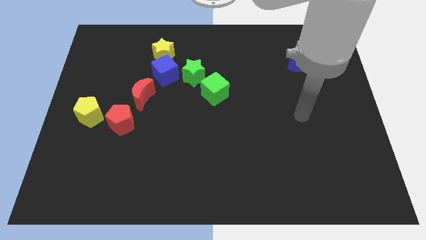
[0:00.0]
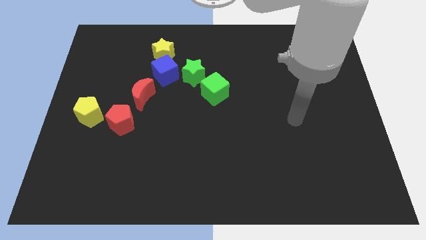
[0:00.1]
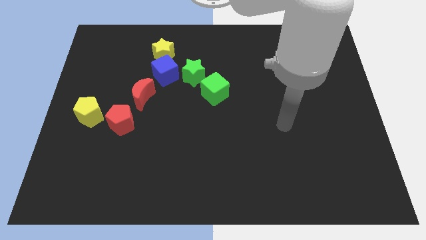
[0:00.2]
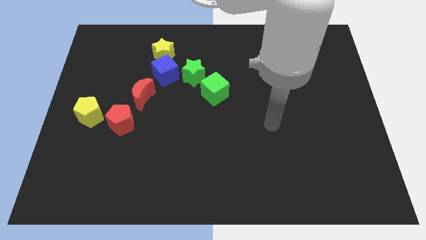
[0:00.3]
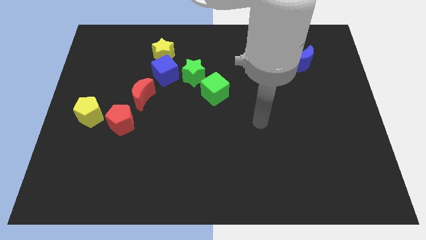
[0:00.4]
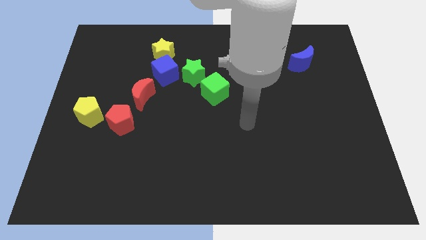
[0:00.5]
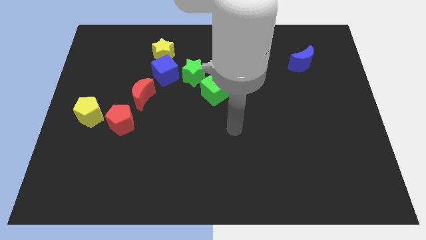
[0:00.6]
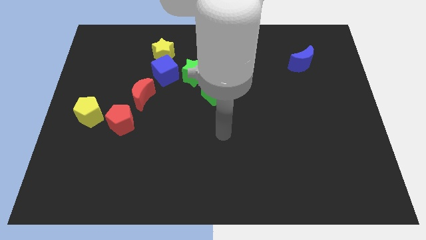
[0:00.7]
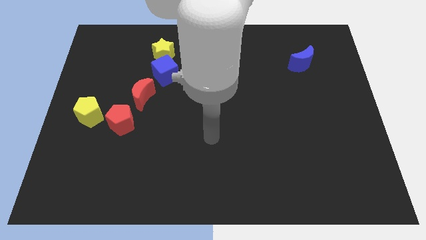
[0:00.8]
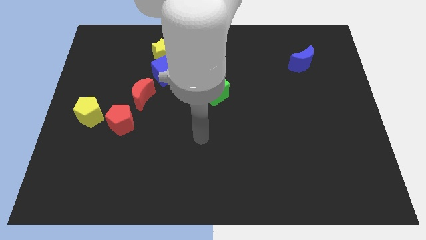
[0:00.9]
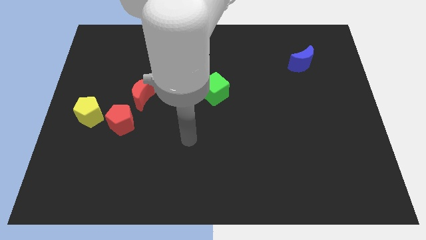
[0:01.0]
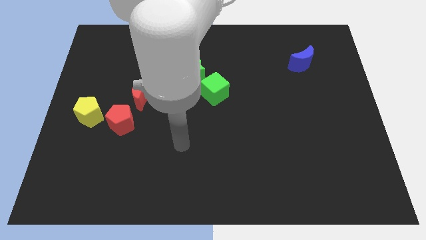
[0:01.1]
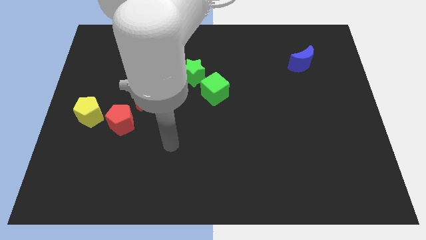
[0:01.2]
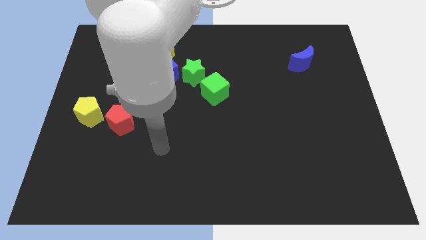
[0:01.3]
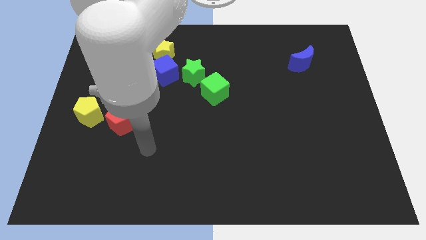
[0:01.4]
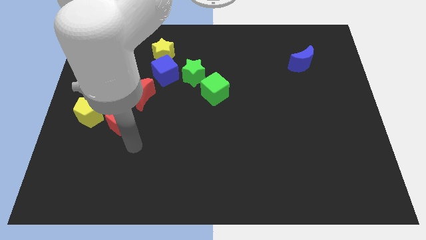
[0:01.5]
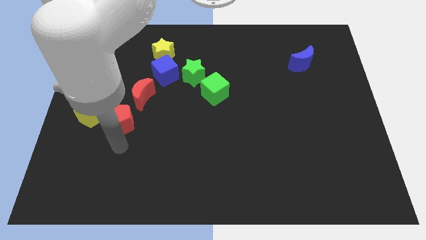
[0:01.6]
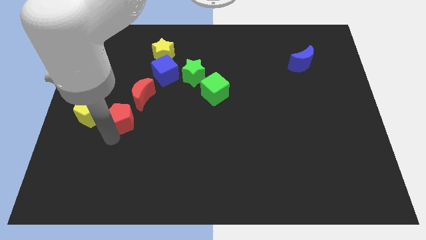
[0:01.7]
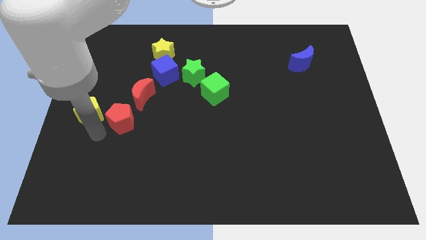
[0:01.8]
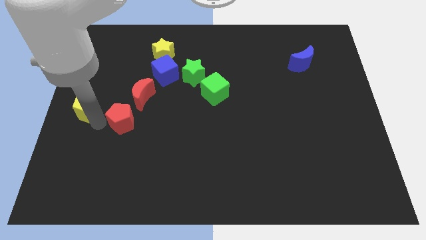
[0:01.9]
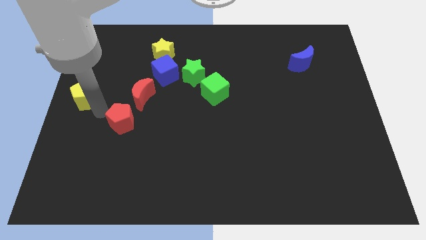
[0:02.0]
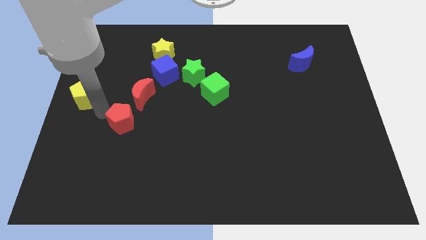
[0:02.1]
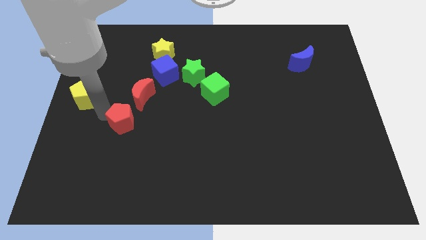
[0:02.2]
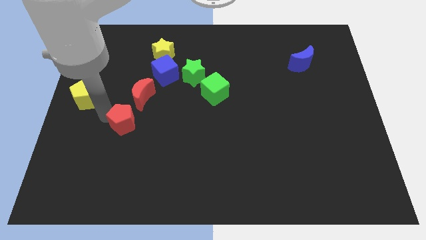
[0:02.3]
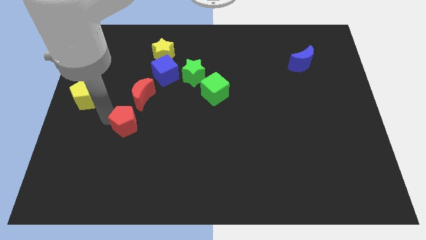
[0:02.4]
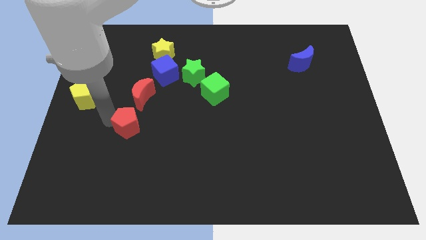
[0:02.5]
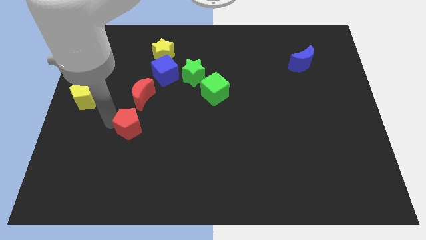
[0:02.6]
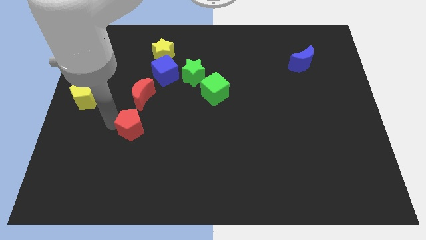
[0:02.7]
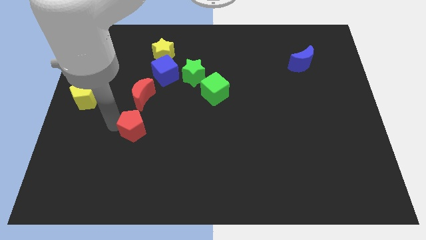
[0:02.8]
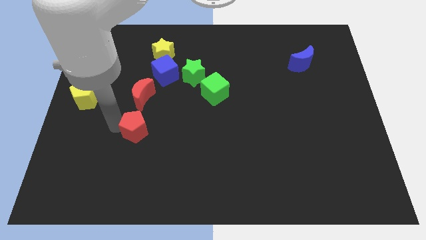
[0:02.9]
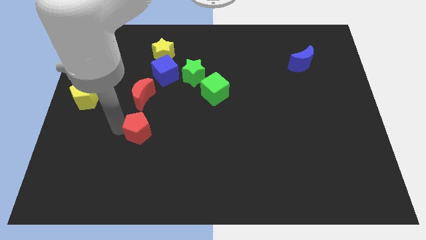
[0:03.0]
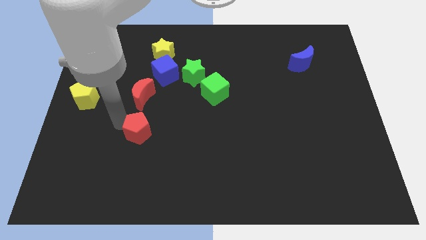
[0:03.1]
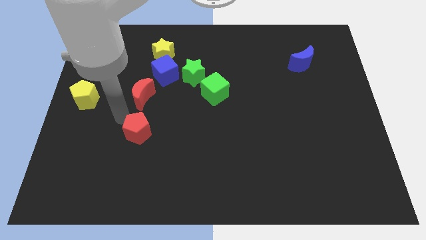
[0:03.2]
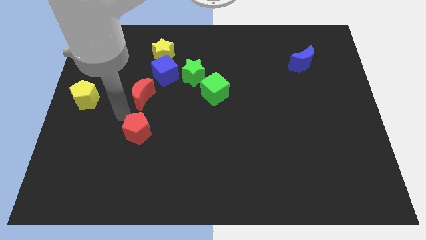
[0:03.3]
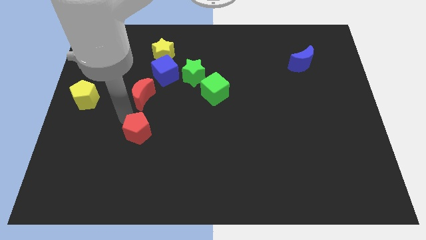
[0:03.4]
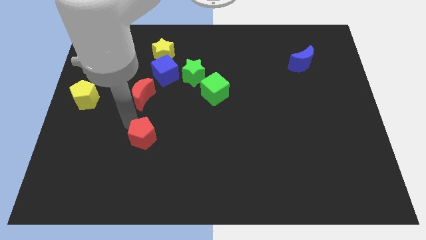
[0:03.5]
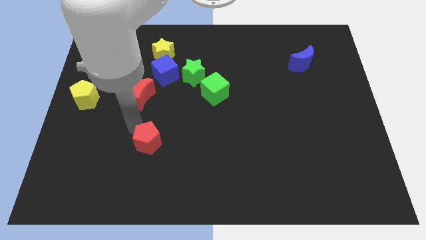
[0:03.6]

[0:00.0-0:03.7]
slightly move the red pentagon diagonally down and to the right

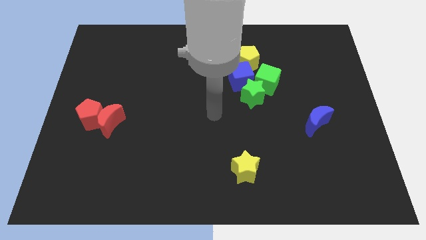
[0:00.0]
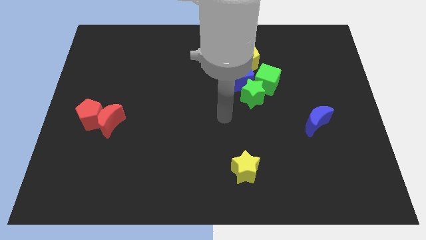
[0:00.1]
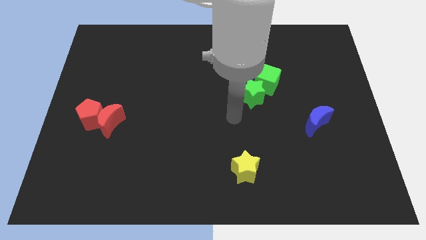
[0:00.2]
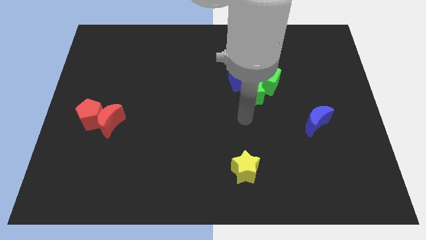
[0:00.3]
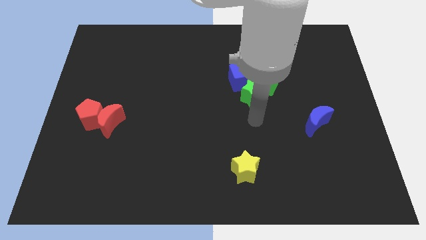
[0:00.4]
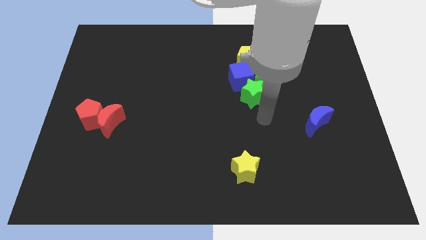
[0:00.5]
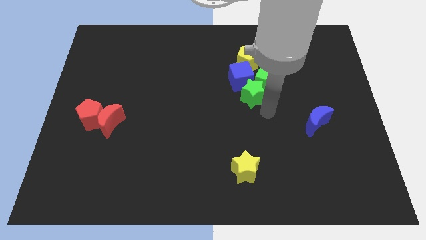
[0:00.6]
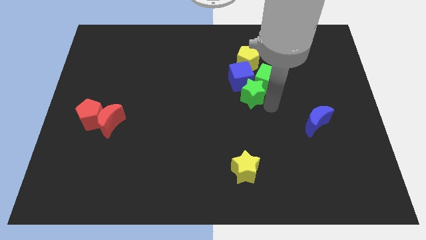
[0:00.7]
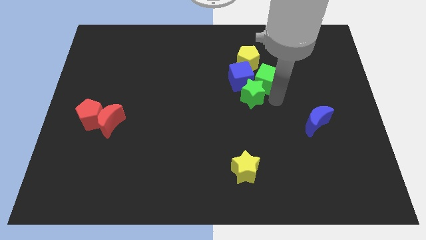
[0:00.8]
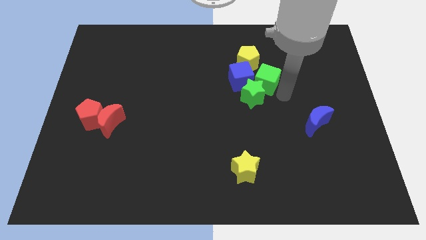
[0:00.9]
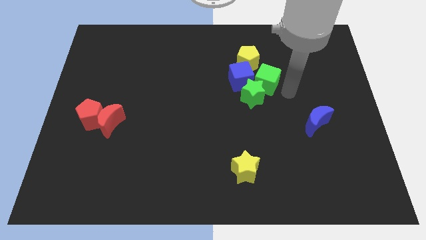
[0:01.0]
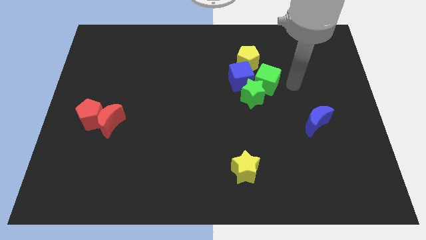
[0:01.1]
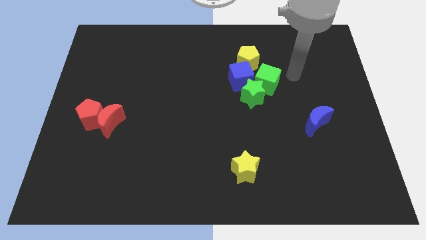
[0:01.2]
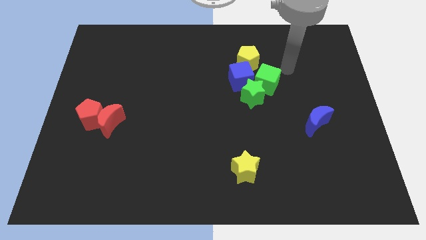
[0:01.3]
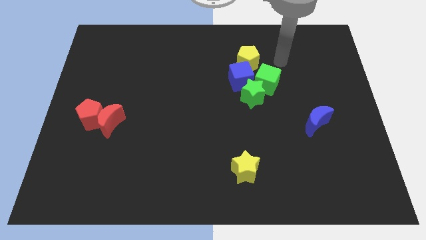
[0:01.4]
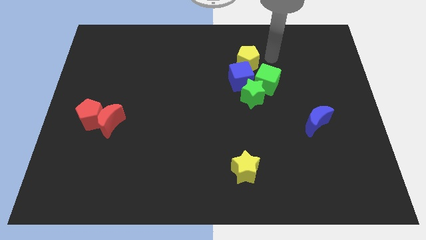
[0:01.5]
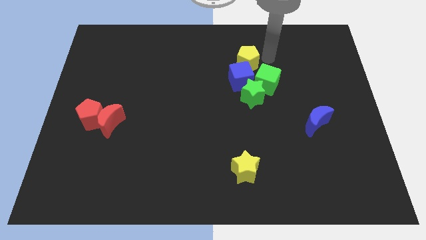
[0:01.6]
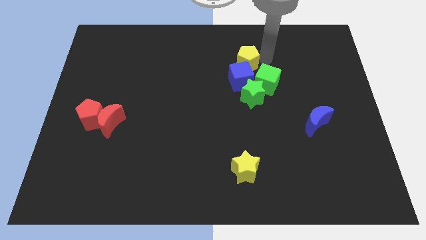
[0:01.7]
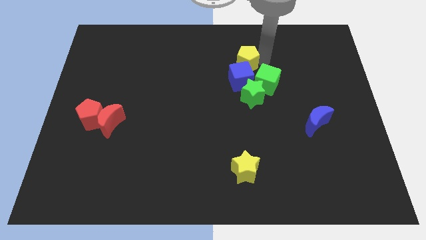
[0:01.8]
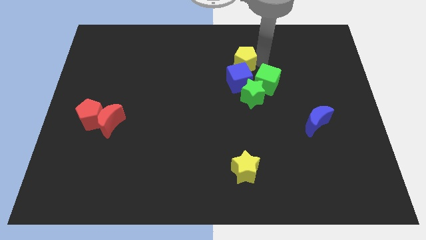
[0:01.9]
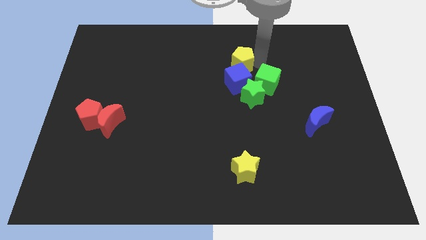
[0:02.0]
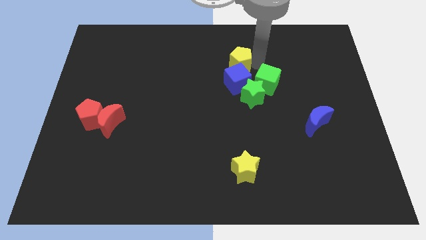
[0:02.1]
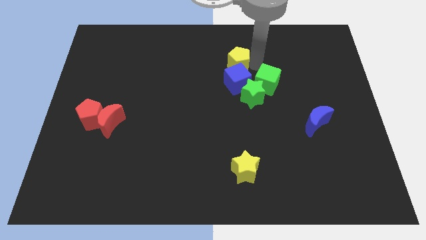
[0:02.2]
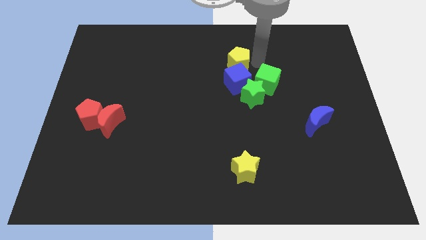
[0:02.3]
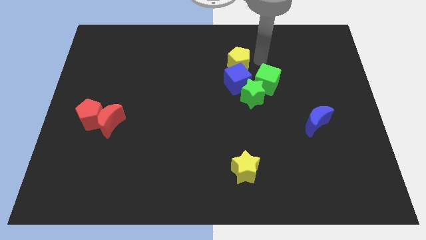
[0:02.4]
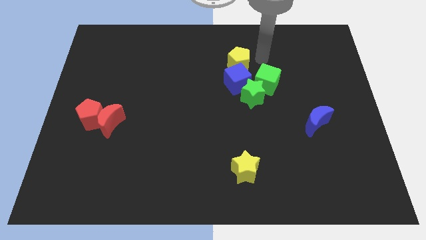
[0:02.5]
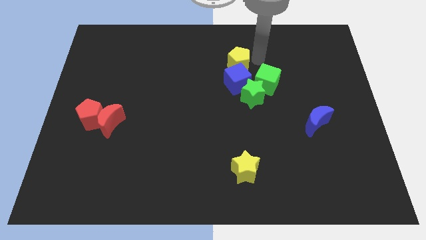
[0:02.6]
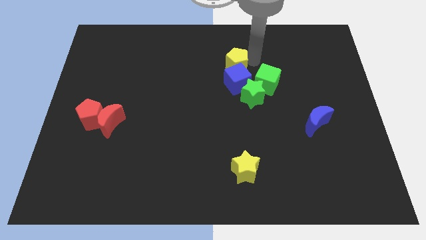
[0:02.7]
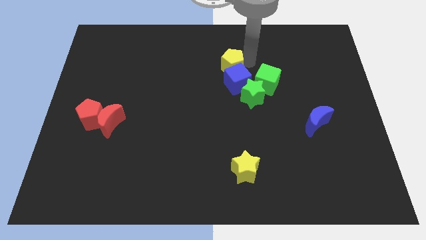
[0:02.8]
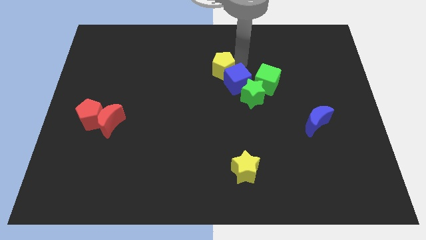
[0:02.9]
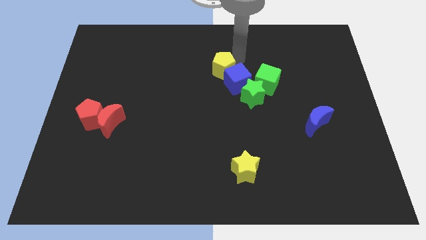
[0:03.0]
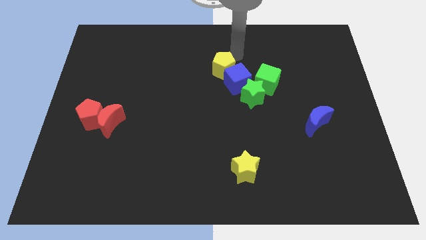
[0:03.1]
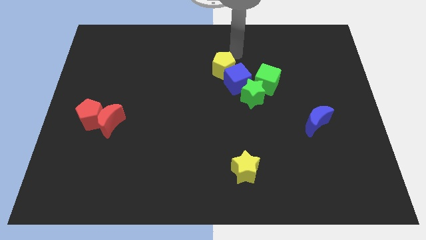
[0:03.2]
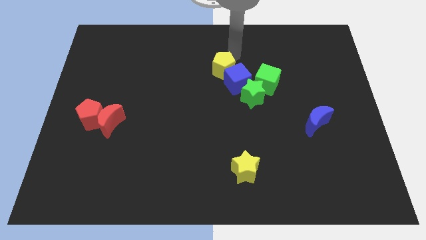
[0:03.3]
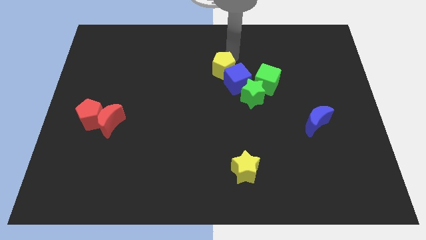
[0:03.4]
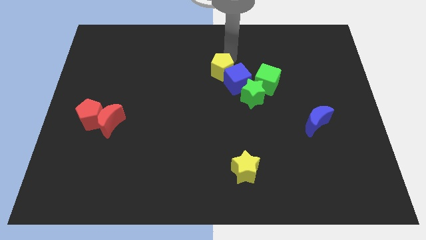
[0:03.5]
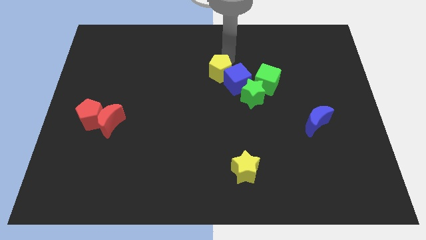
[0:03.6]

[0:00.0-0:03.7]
slightly push the yellow pentagon downwards and to the left

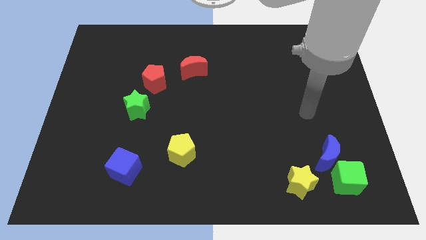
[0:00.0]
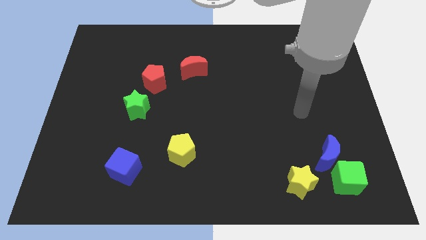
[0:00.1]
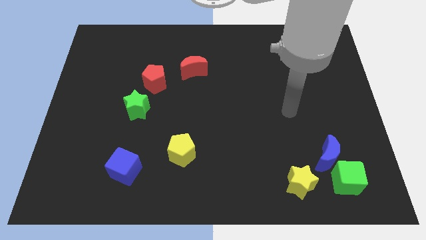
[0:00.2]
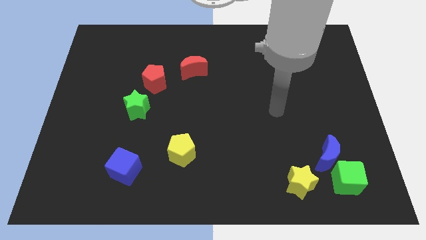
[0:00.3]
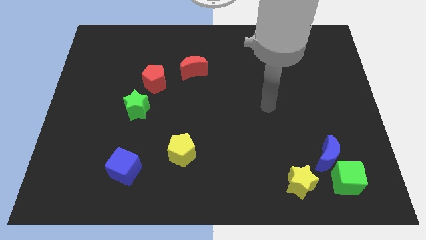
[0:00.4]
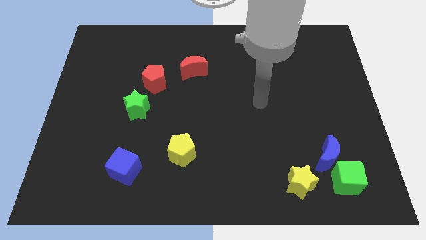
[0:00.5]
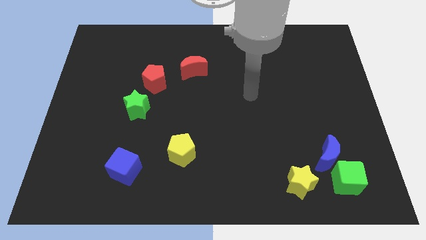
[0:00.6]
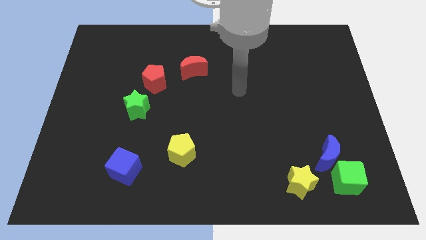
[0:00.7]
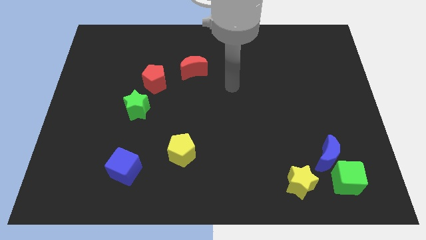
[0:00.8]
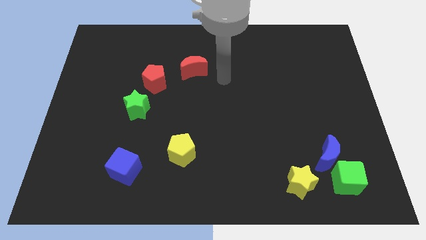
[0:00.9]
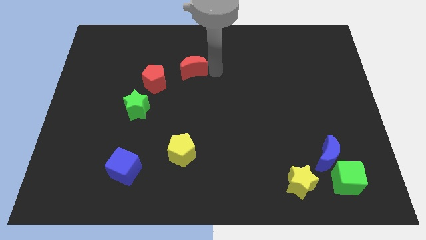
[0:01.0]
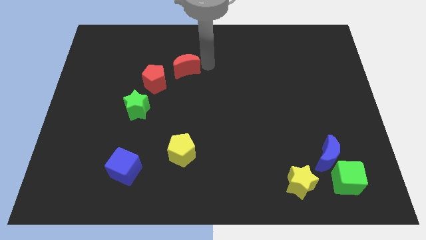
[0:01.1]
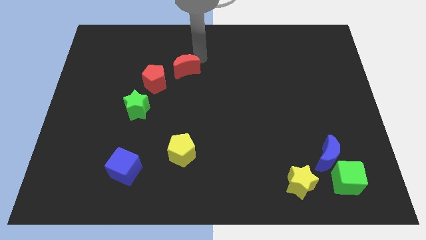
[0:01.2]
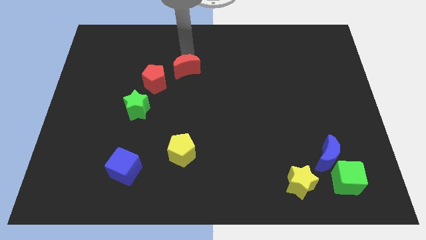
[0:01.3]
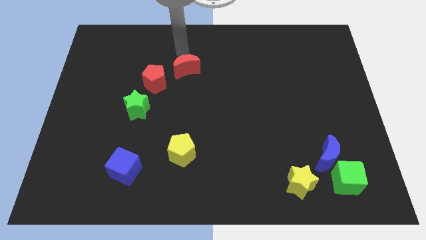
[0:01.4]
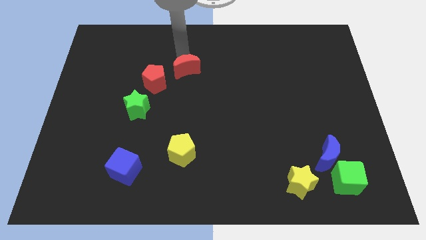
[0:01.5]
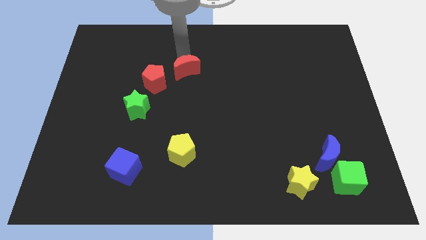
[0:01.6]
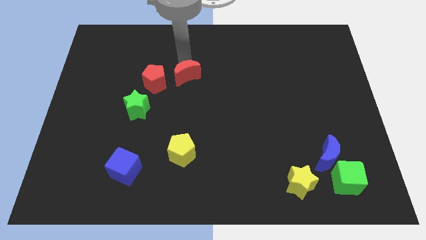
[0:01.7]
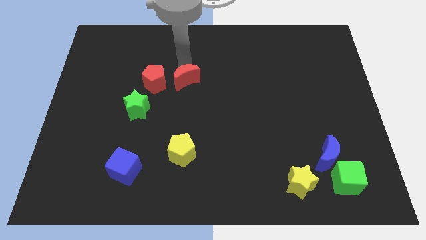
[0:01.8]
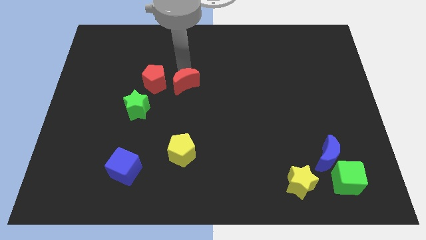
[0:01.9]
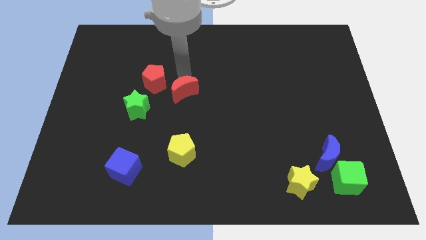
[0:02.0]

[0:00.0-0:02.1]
slide the red moon downwards a little
